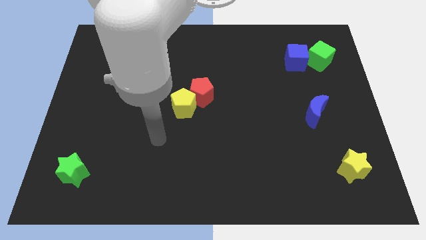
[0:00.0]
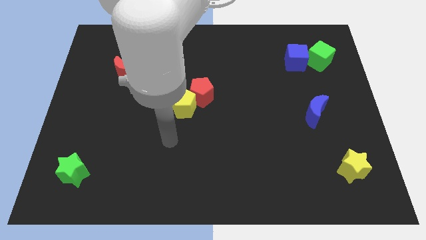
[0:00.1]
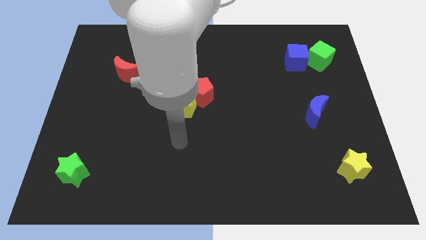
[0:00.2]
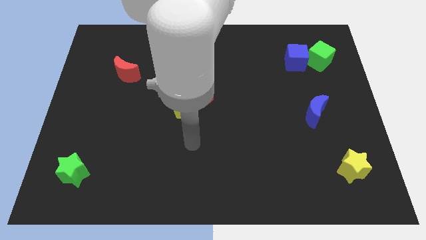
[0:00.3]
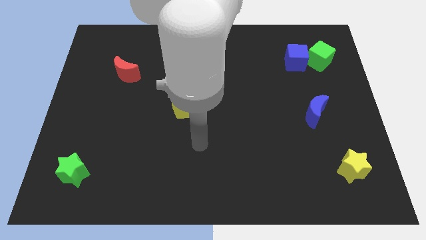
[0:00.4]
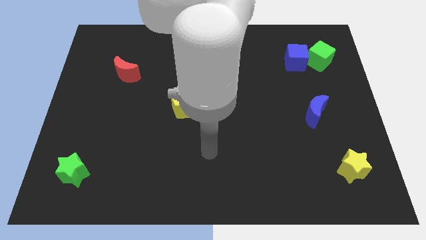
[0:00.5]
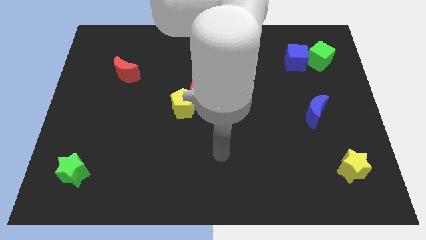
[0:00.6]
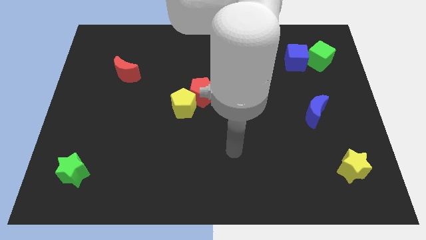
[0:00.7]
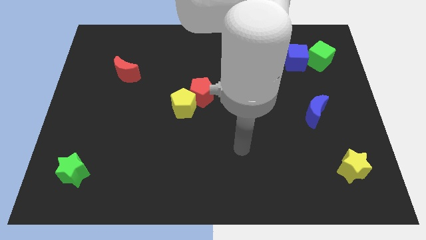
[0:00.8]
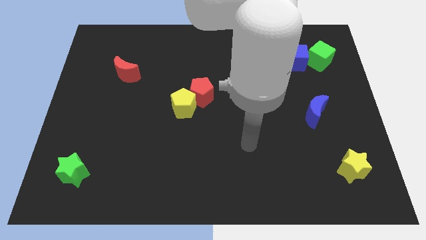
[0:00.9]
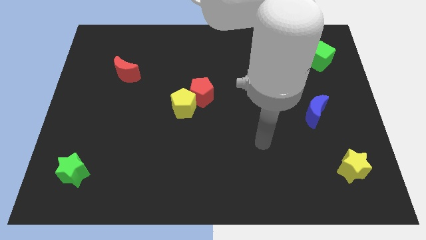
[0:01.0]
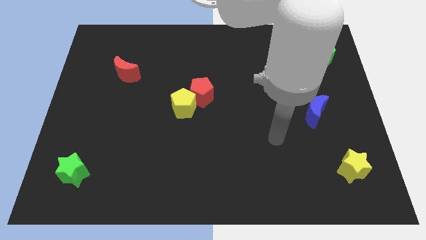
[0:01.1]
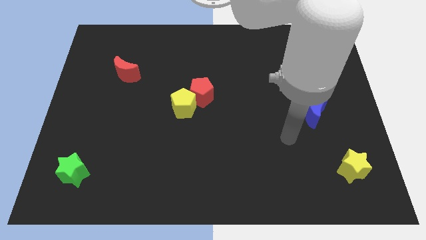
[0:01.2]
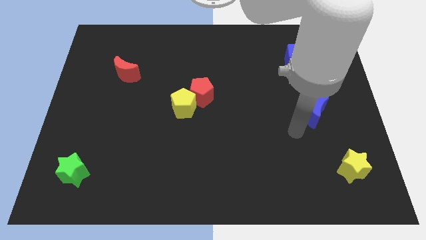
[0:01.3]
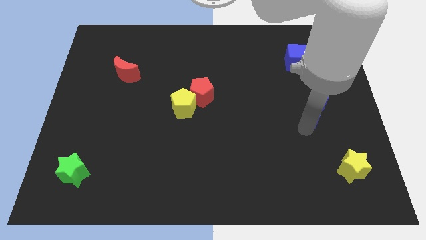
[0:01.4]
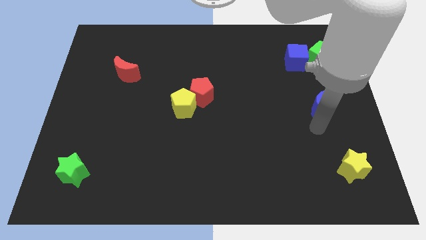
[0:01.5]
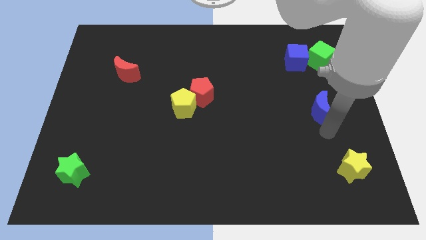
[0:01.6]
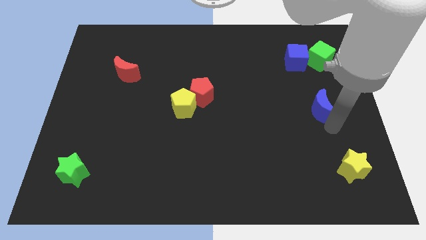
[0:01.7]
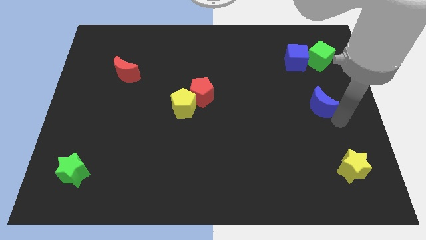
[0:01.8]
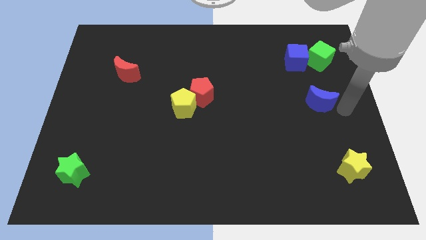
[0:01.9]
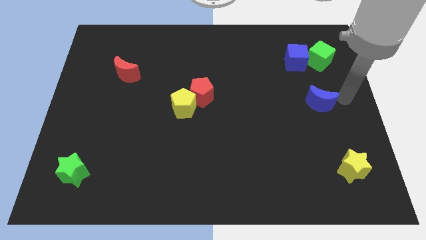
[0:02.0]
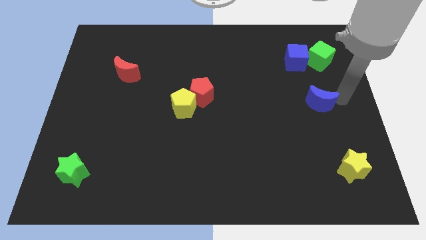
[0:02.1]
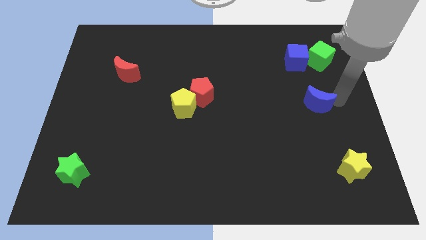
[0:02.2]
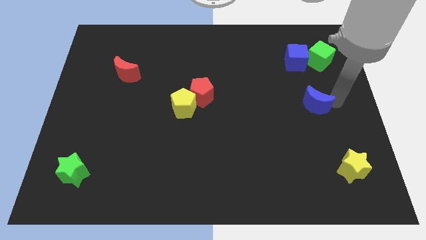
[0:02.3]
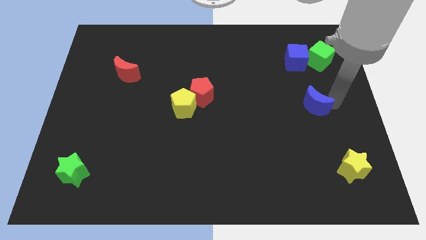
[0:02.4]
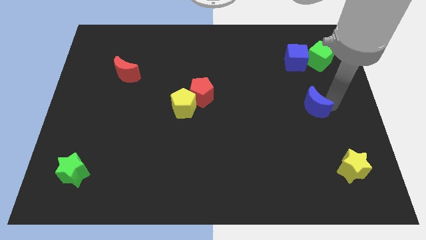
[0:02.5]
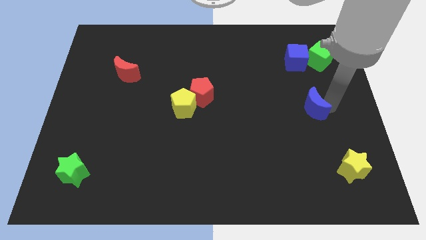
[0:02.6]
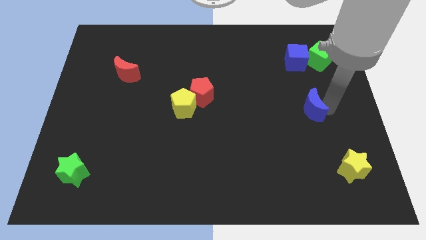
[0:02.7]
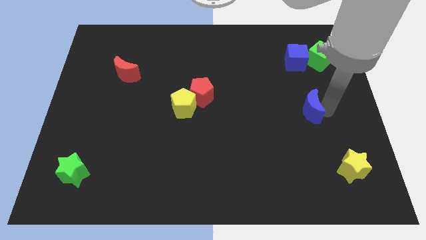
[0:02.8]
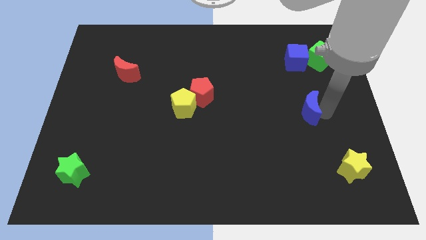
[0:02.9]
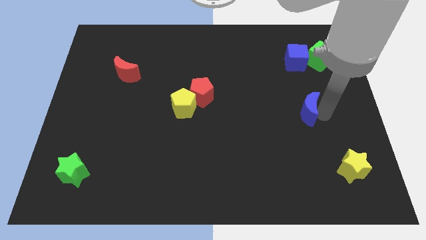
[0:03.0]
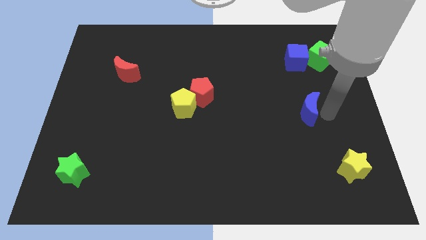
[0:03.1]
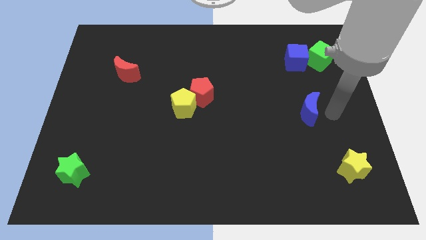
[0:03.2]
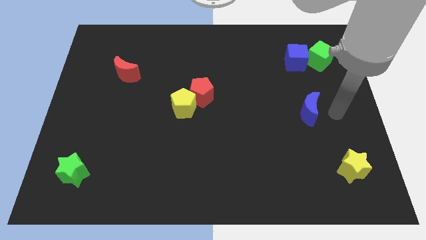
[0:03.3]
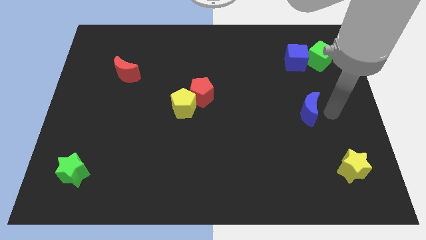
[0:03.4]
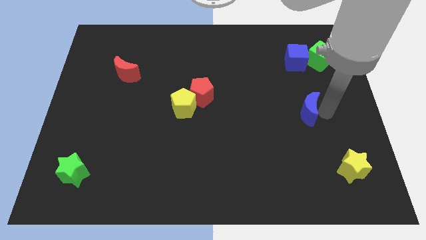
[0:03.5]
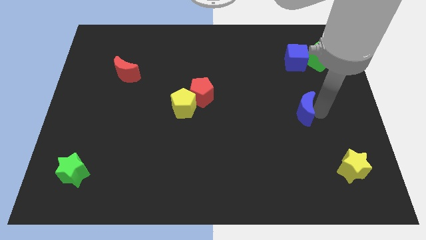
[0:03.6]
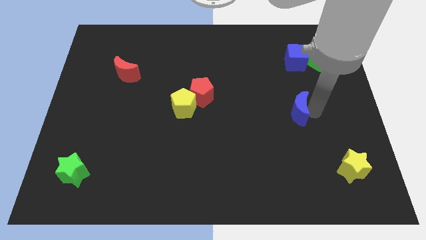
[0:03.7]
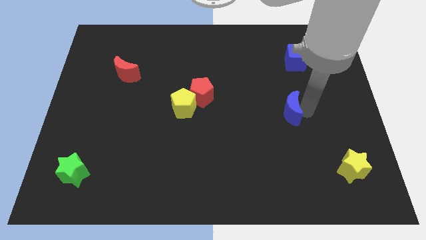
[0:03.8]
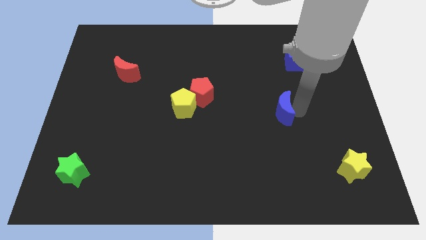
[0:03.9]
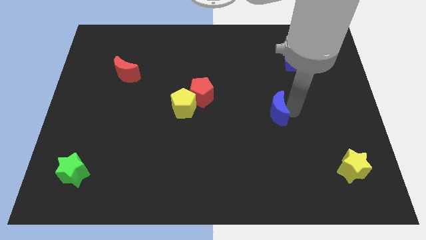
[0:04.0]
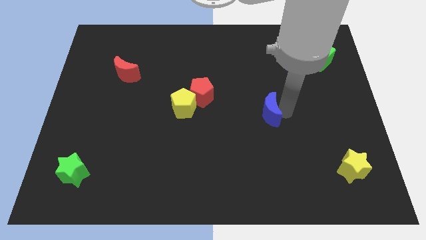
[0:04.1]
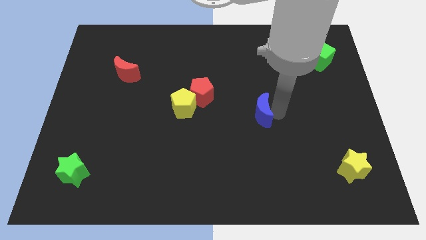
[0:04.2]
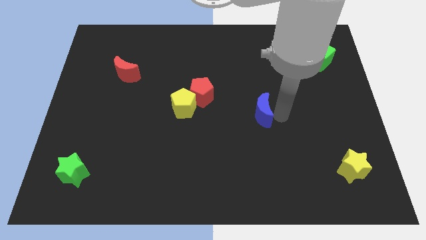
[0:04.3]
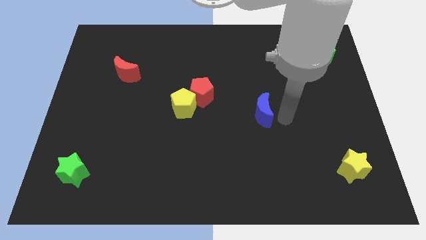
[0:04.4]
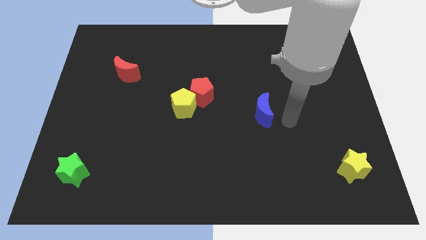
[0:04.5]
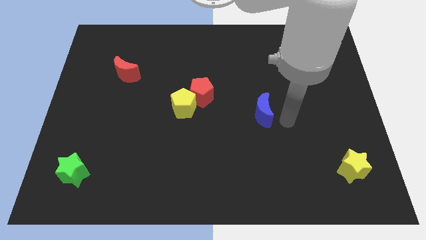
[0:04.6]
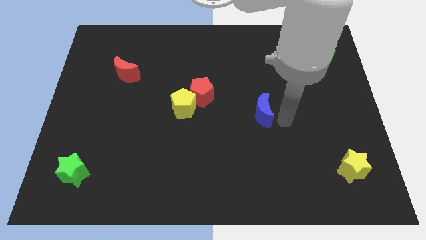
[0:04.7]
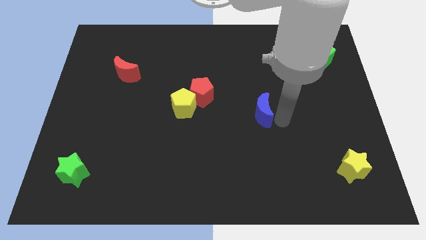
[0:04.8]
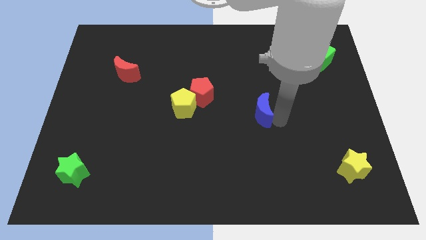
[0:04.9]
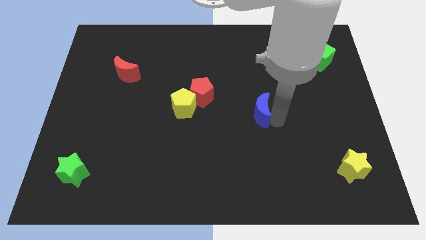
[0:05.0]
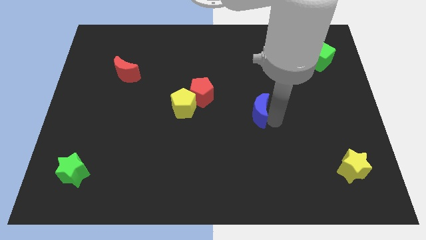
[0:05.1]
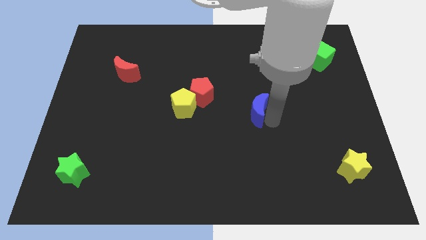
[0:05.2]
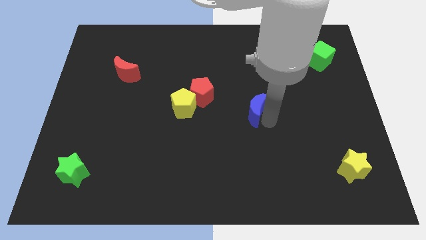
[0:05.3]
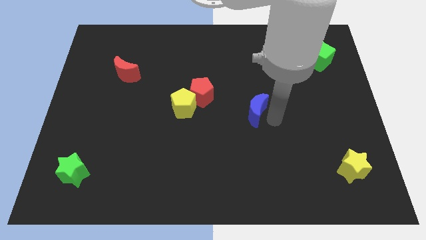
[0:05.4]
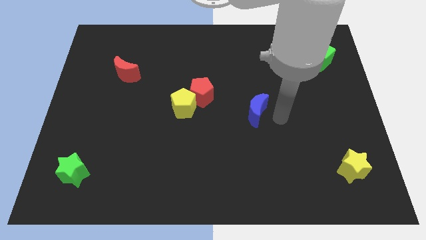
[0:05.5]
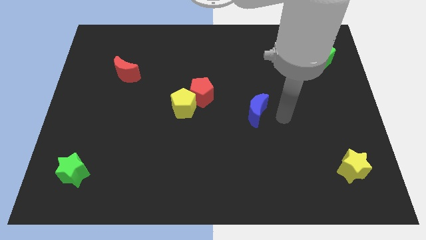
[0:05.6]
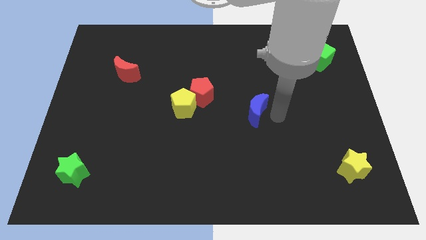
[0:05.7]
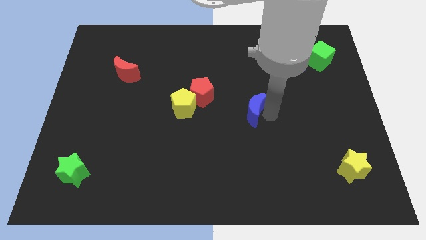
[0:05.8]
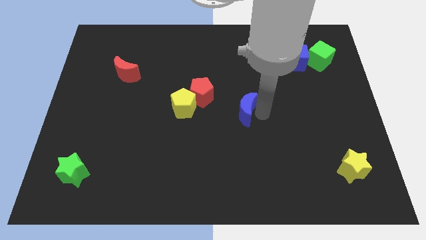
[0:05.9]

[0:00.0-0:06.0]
move the blue moon right of the yellow pentagon

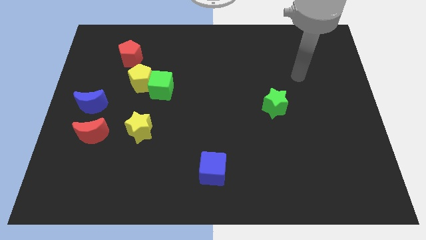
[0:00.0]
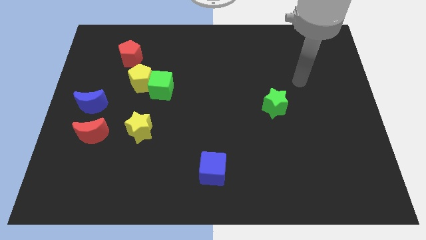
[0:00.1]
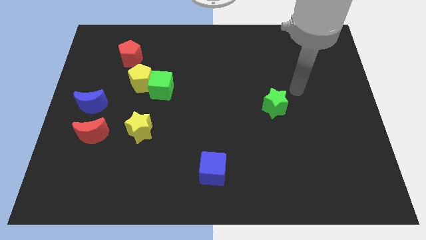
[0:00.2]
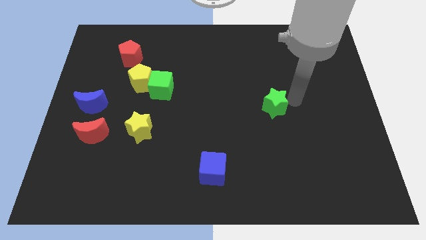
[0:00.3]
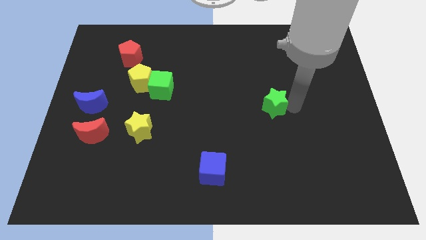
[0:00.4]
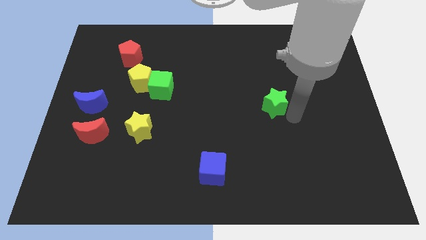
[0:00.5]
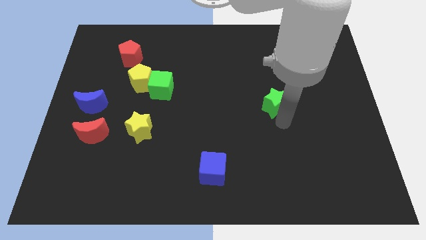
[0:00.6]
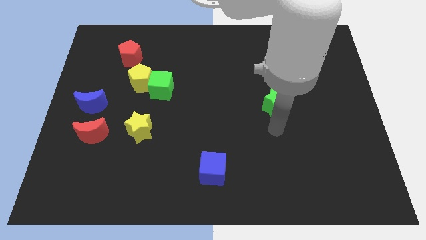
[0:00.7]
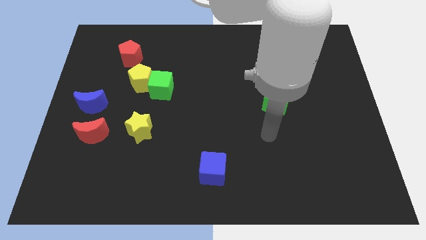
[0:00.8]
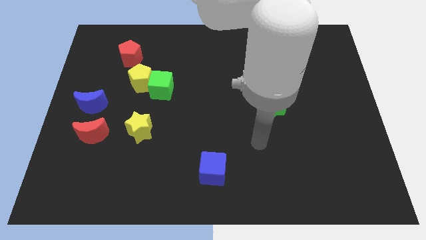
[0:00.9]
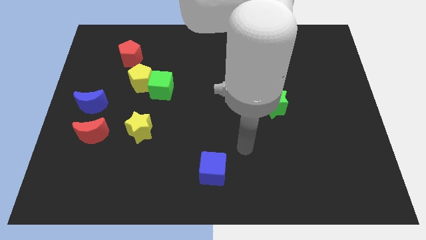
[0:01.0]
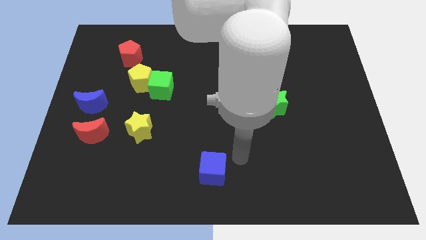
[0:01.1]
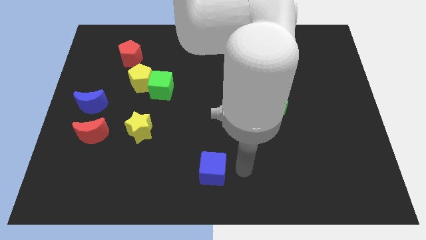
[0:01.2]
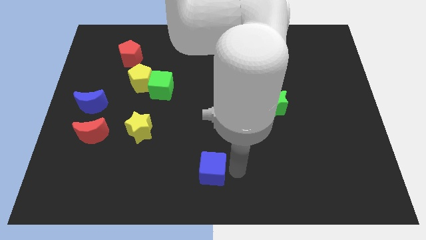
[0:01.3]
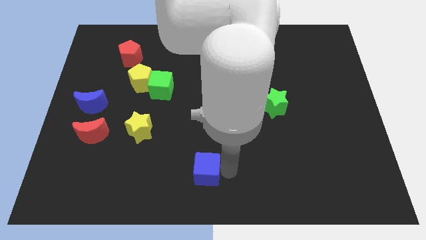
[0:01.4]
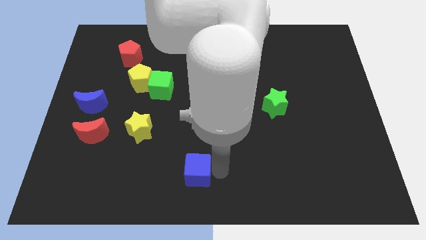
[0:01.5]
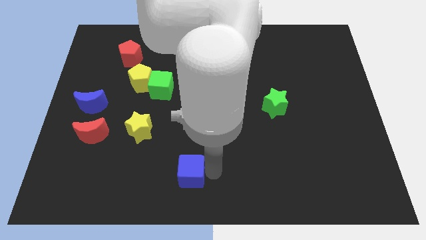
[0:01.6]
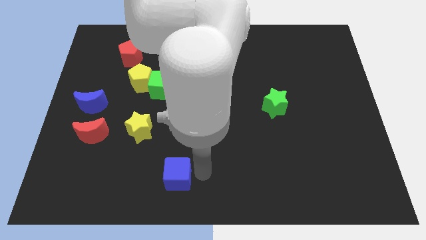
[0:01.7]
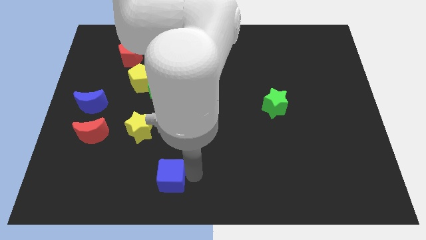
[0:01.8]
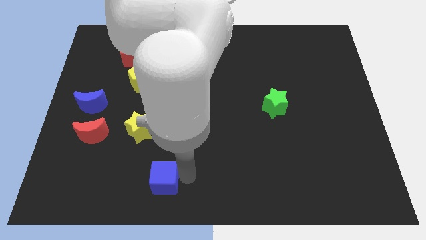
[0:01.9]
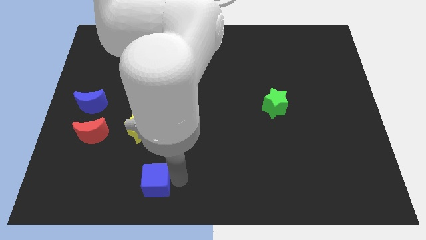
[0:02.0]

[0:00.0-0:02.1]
put the blue cube below the yellow star
